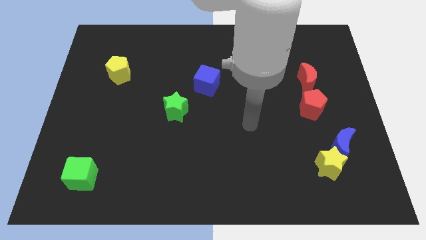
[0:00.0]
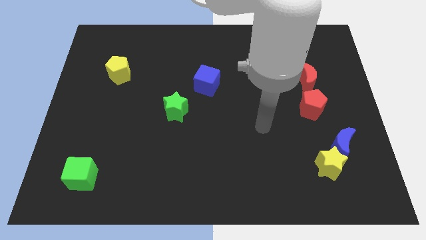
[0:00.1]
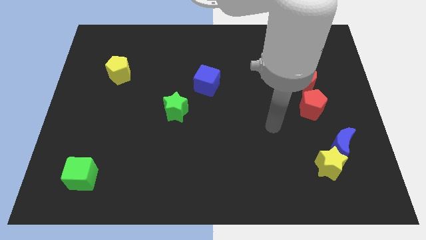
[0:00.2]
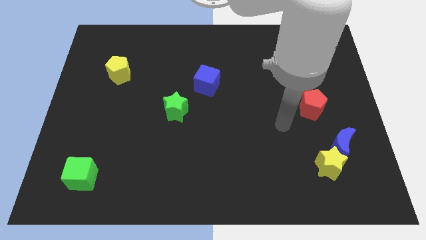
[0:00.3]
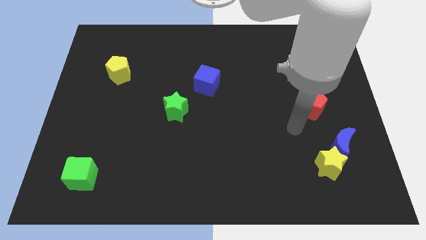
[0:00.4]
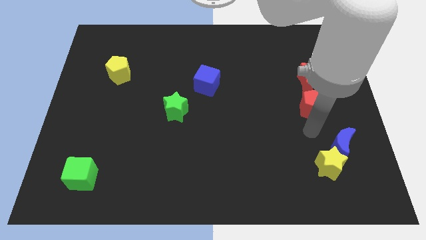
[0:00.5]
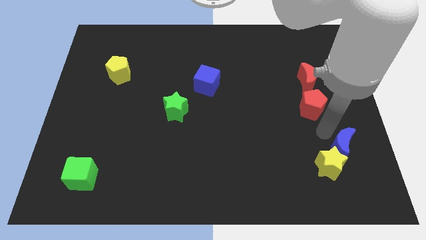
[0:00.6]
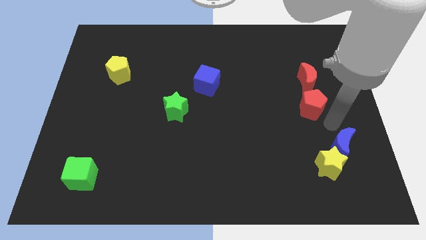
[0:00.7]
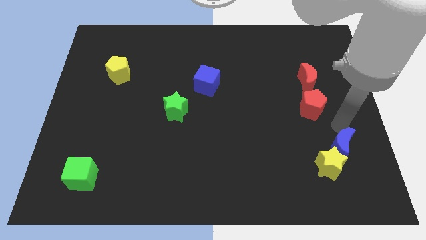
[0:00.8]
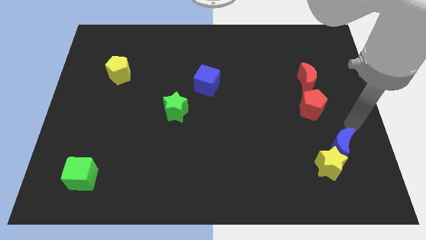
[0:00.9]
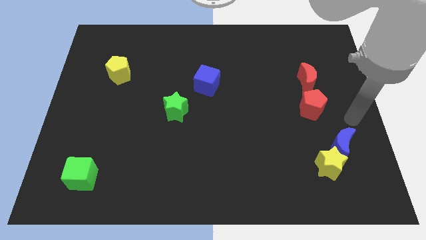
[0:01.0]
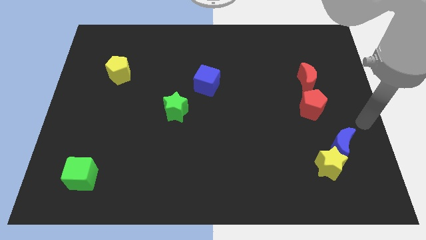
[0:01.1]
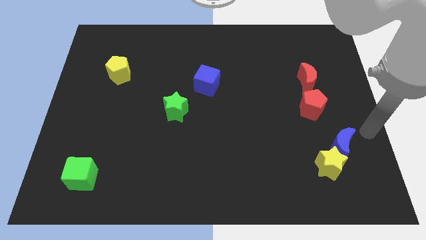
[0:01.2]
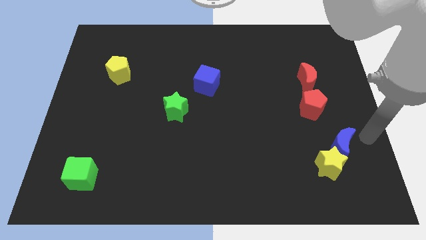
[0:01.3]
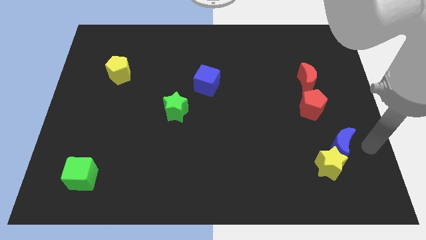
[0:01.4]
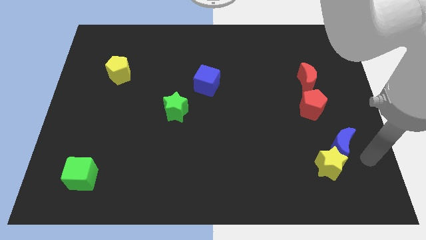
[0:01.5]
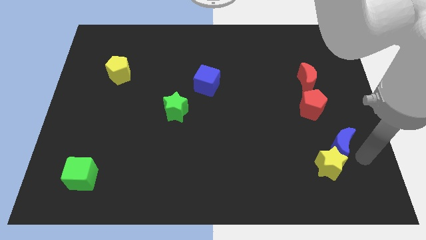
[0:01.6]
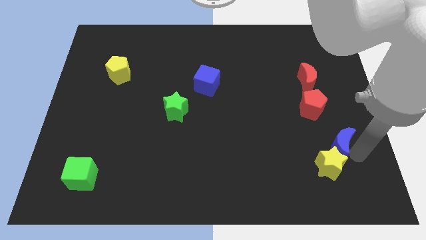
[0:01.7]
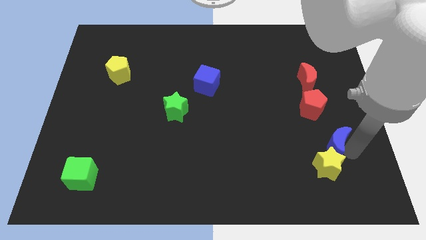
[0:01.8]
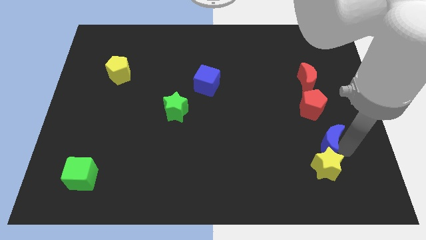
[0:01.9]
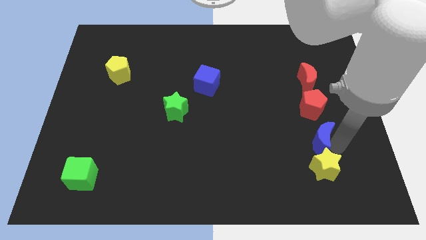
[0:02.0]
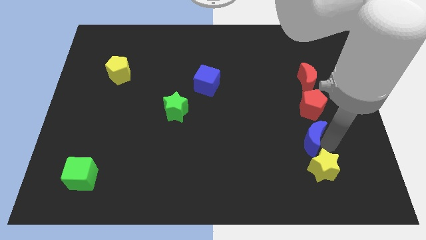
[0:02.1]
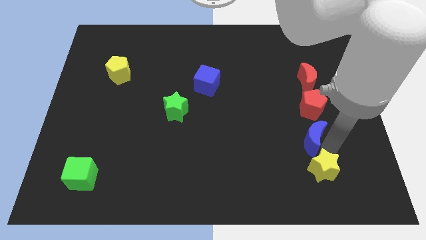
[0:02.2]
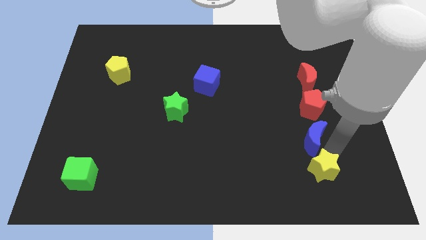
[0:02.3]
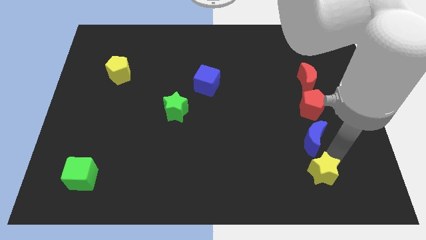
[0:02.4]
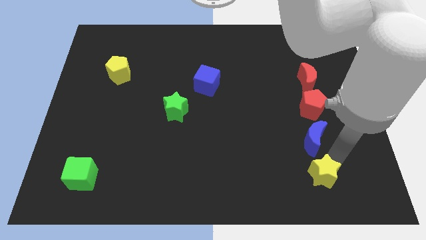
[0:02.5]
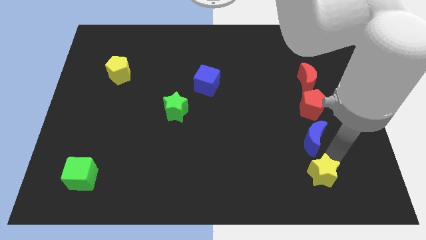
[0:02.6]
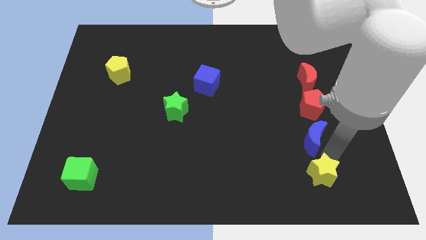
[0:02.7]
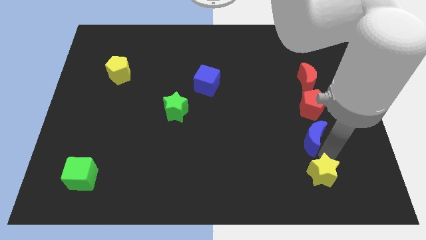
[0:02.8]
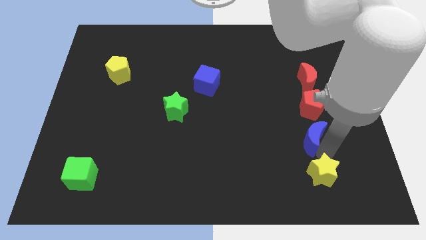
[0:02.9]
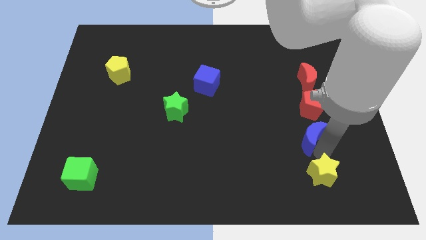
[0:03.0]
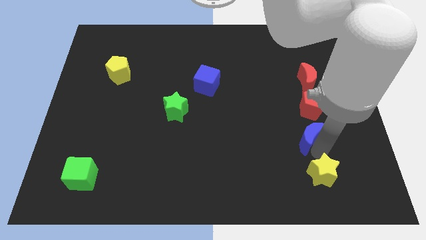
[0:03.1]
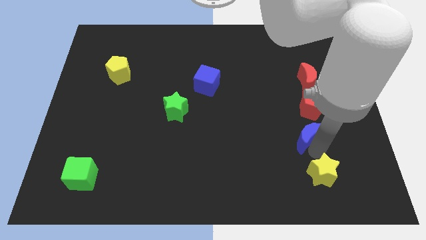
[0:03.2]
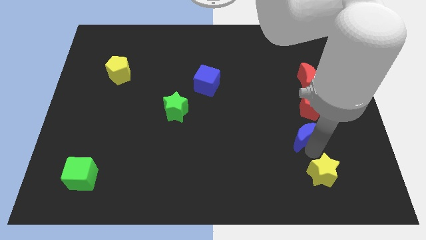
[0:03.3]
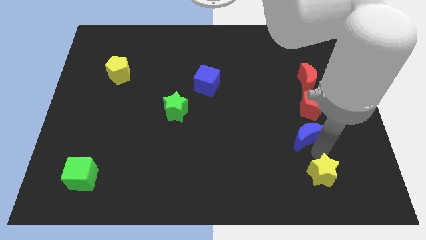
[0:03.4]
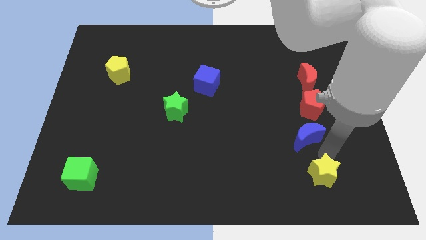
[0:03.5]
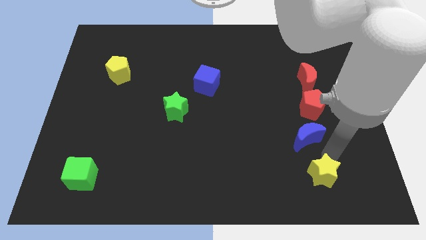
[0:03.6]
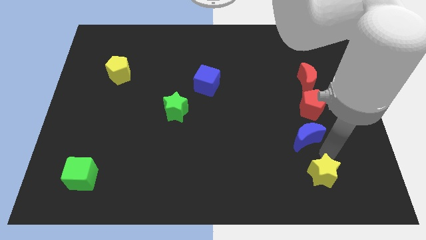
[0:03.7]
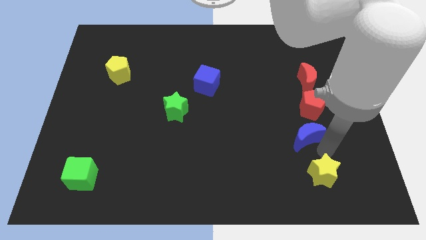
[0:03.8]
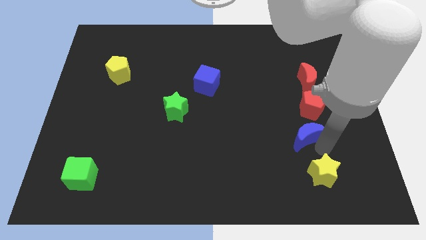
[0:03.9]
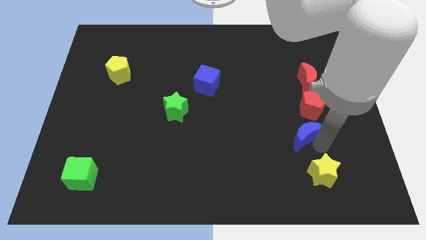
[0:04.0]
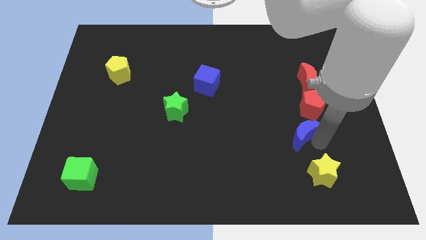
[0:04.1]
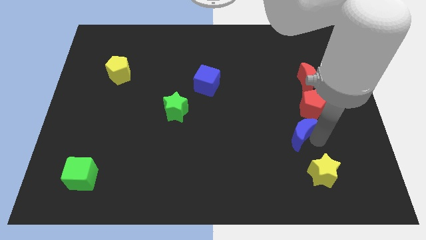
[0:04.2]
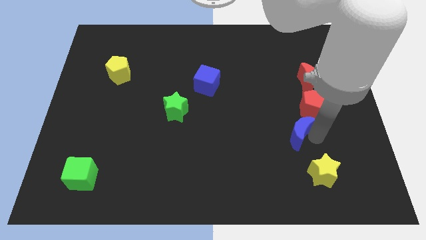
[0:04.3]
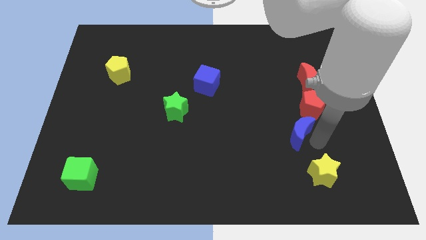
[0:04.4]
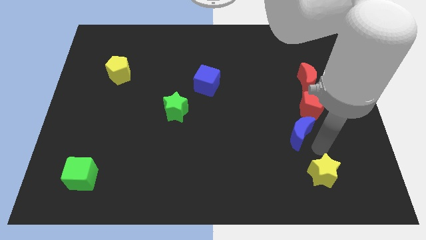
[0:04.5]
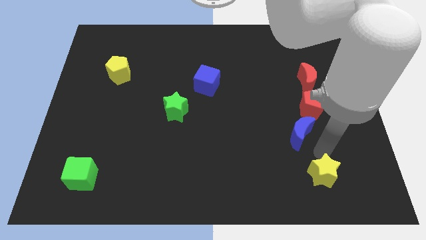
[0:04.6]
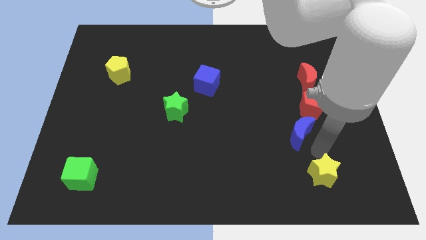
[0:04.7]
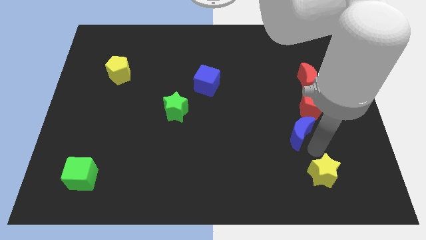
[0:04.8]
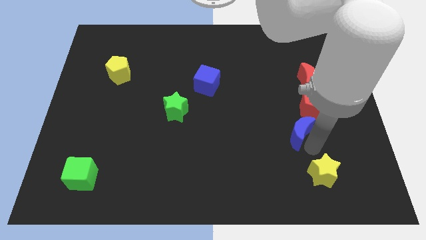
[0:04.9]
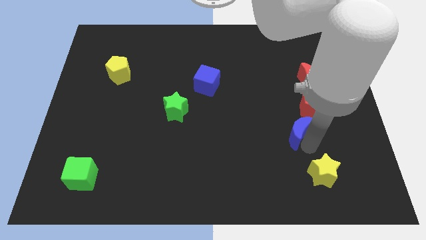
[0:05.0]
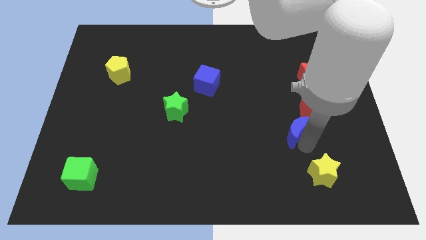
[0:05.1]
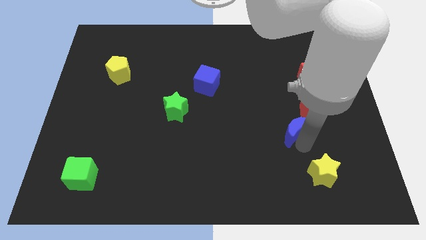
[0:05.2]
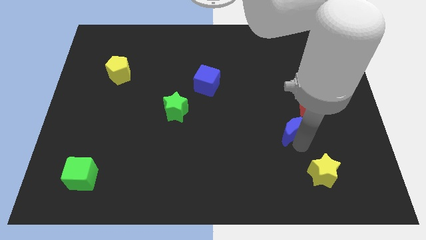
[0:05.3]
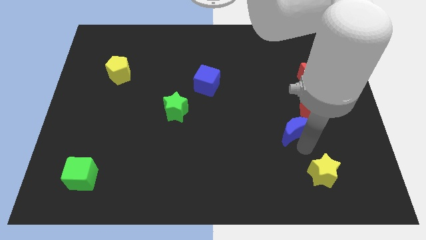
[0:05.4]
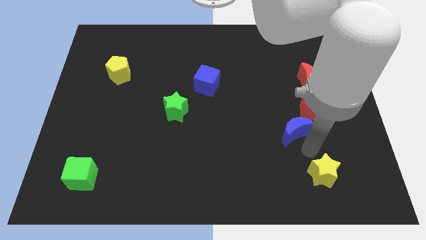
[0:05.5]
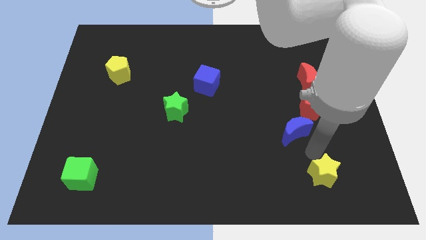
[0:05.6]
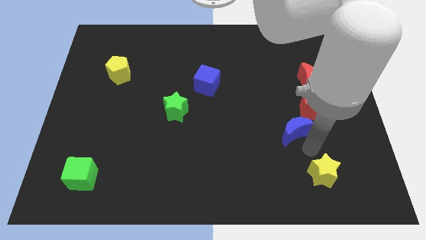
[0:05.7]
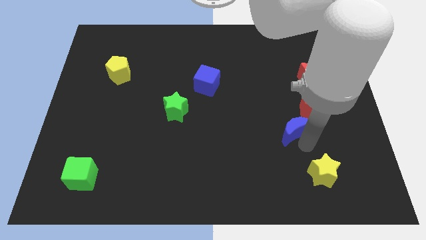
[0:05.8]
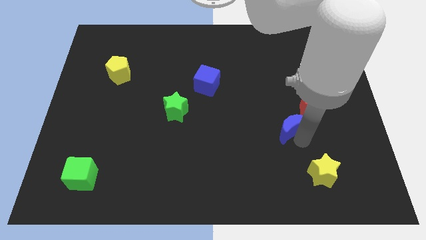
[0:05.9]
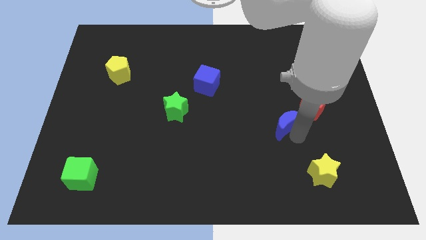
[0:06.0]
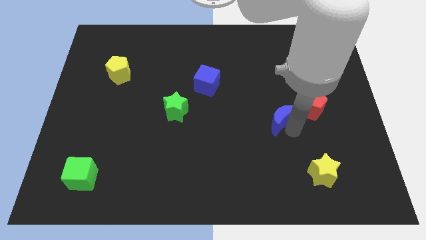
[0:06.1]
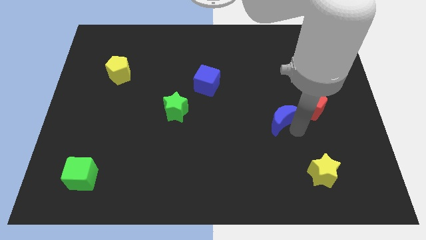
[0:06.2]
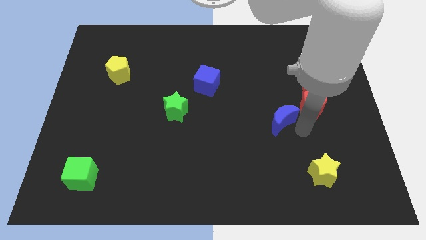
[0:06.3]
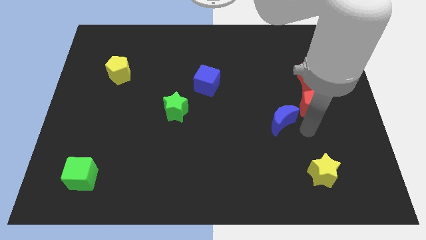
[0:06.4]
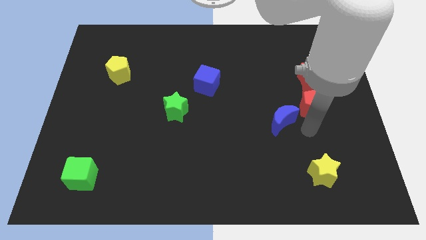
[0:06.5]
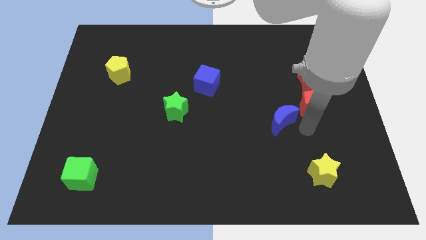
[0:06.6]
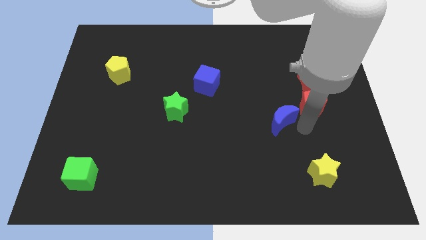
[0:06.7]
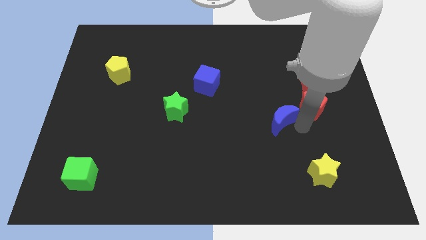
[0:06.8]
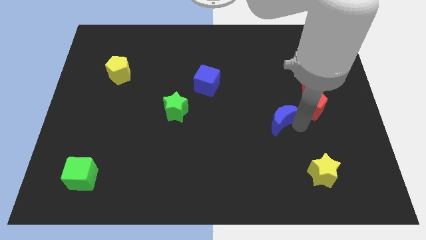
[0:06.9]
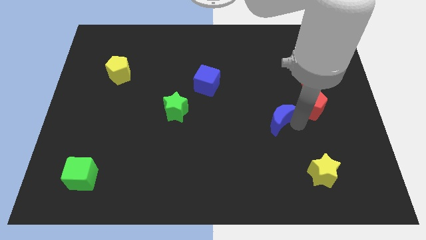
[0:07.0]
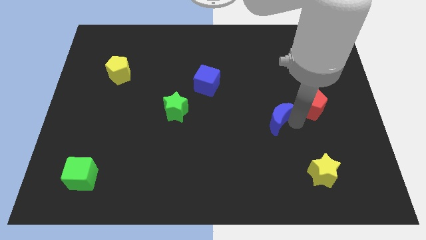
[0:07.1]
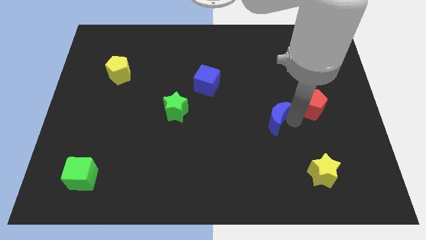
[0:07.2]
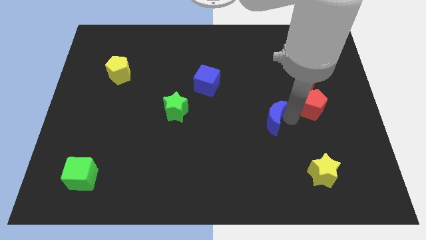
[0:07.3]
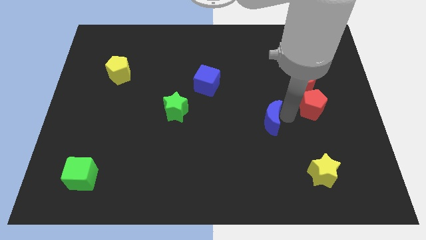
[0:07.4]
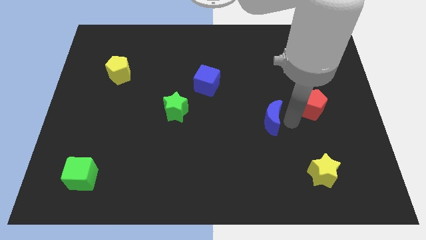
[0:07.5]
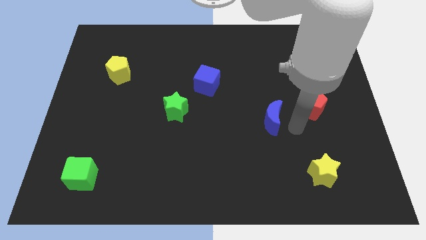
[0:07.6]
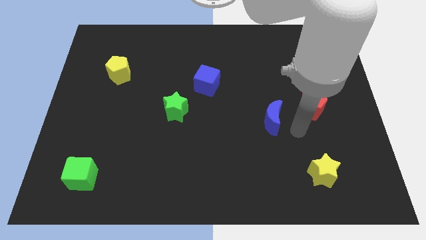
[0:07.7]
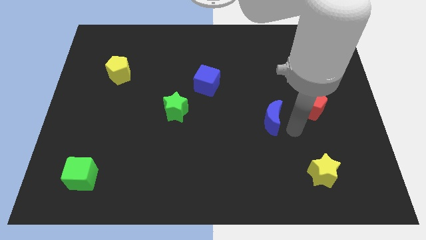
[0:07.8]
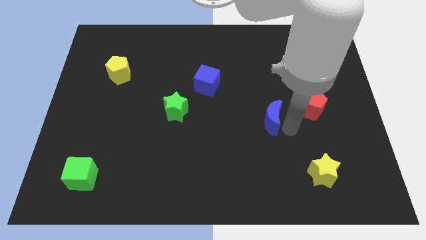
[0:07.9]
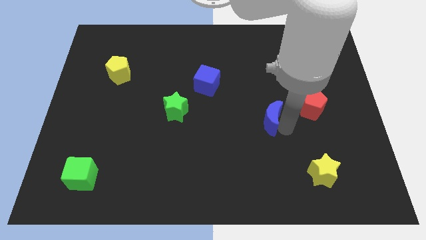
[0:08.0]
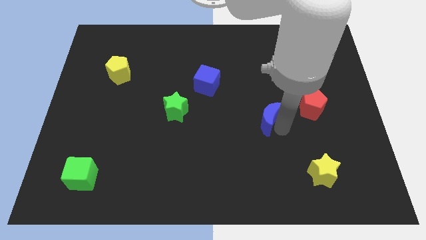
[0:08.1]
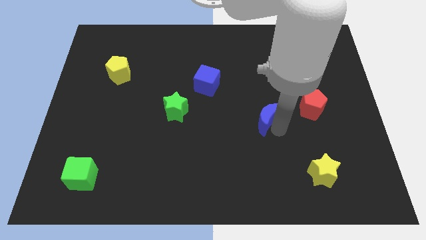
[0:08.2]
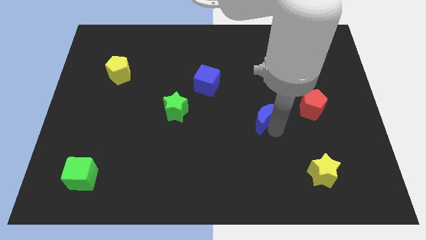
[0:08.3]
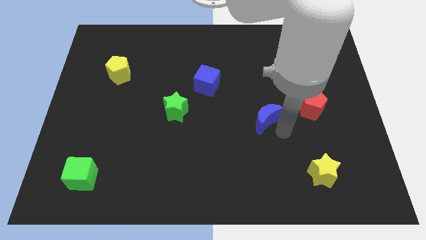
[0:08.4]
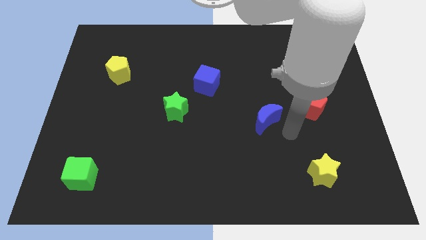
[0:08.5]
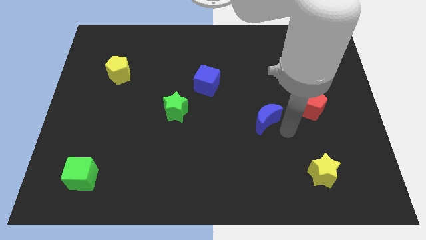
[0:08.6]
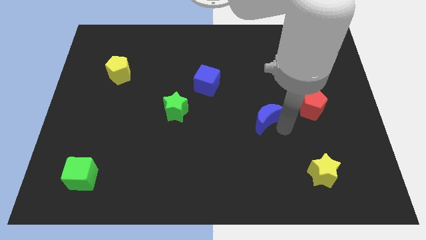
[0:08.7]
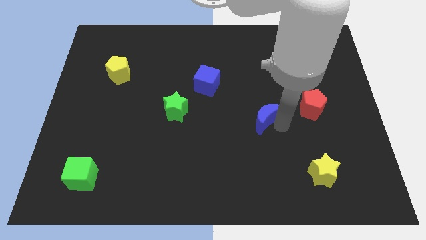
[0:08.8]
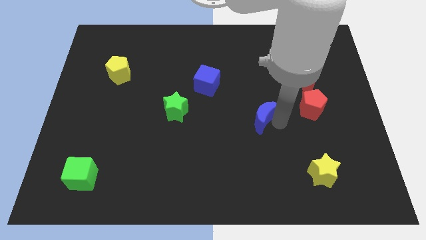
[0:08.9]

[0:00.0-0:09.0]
slide the blue moon to the middle of the board
